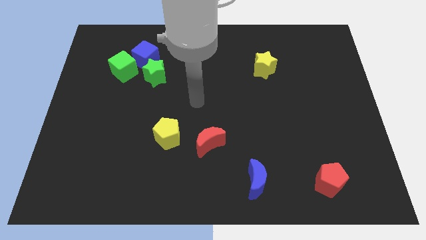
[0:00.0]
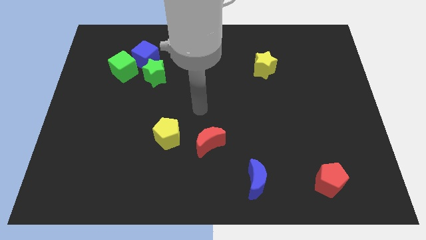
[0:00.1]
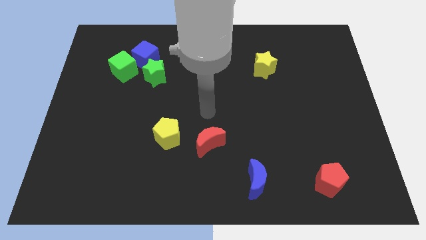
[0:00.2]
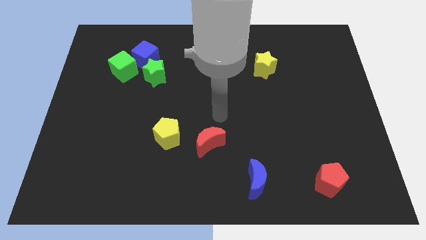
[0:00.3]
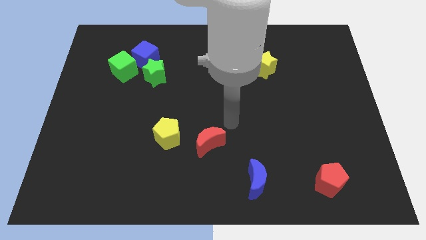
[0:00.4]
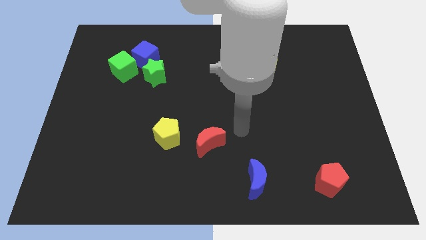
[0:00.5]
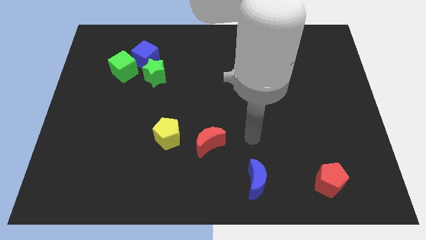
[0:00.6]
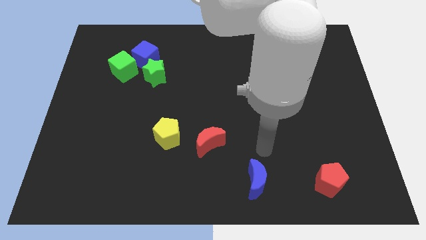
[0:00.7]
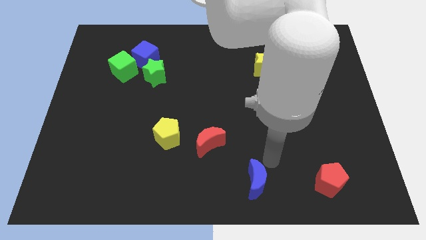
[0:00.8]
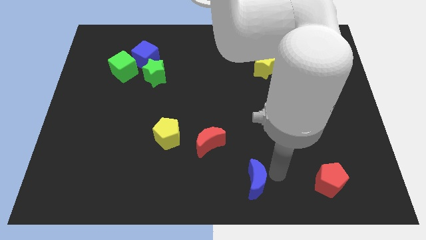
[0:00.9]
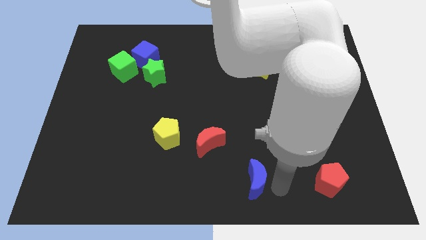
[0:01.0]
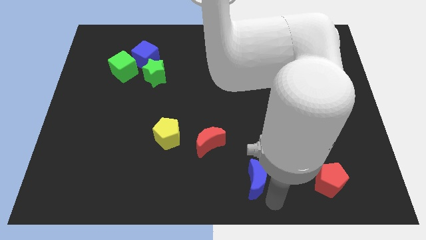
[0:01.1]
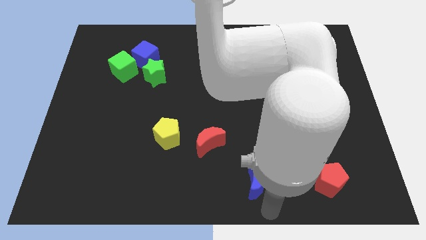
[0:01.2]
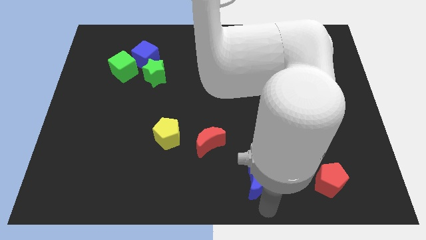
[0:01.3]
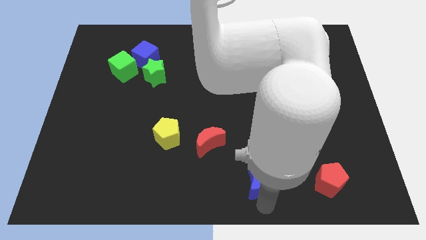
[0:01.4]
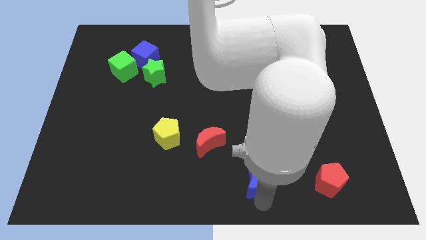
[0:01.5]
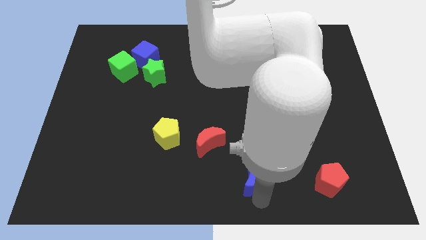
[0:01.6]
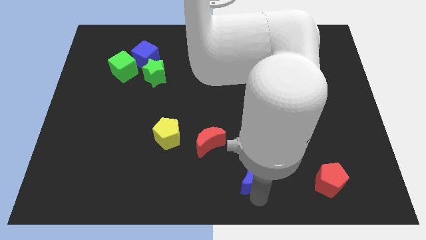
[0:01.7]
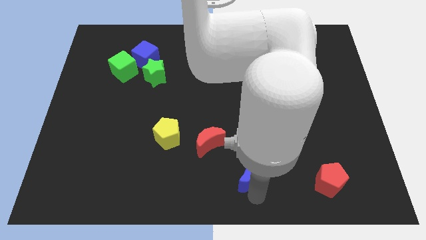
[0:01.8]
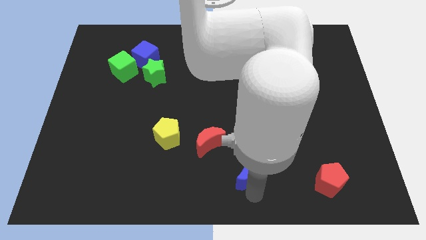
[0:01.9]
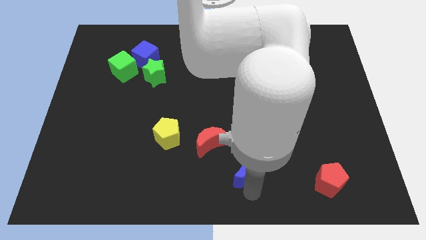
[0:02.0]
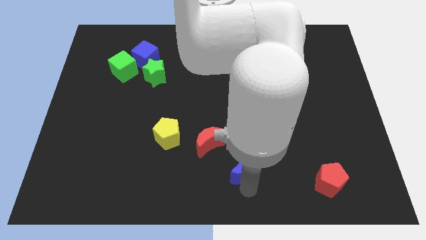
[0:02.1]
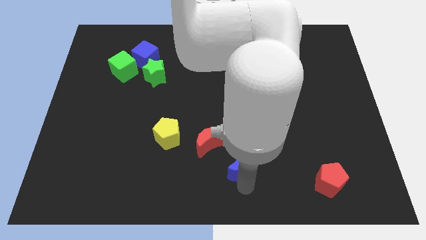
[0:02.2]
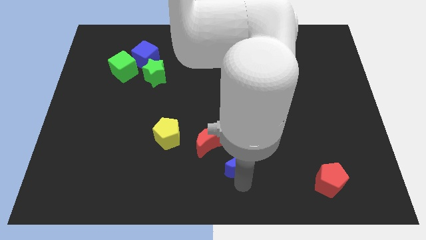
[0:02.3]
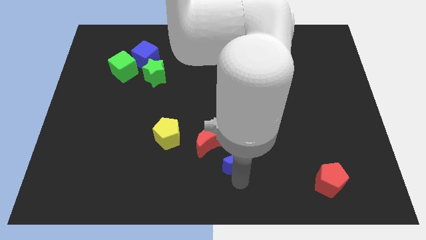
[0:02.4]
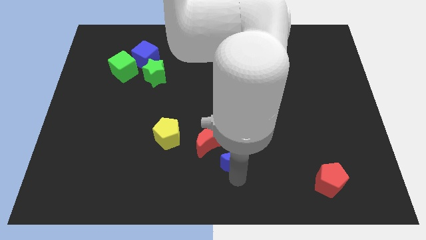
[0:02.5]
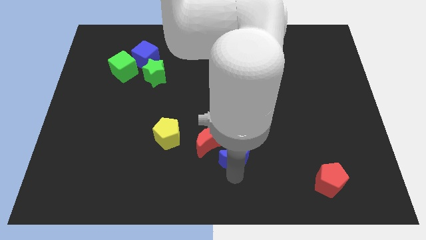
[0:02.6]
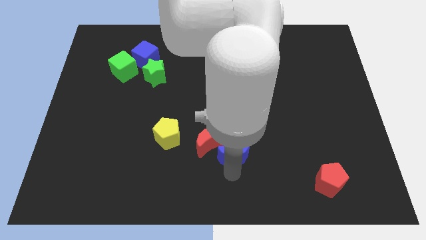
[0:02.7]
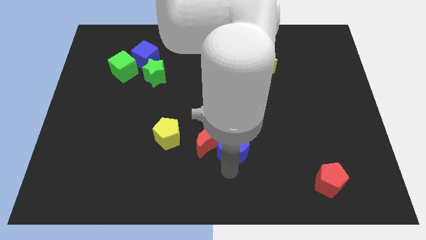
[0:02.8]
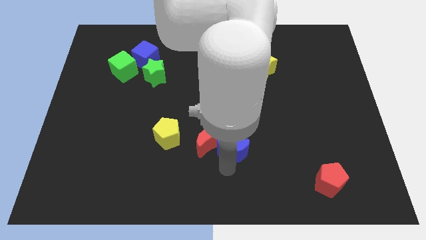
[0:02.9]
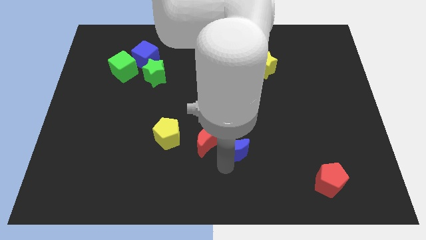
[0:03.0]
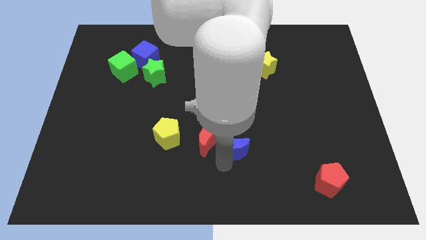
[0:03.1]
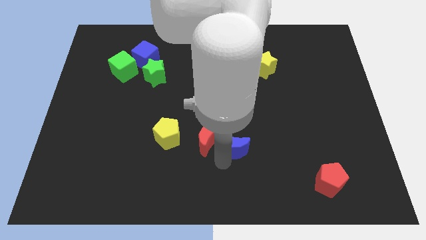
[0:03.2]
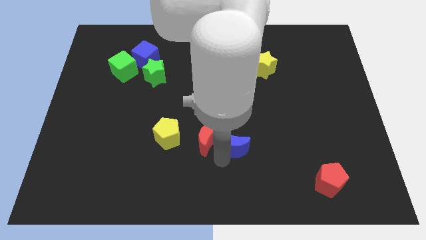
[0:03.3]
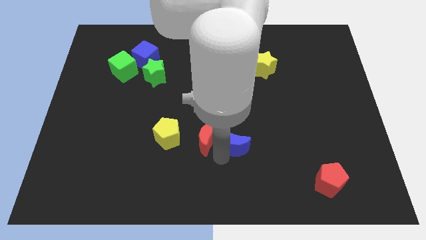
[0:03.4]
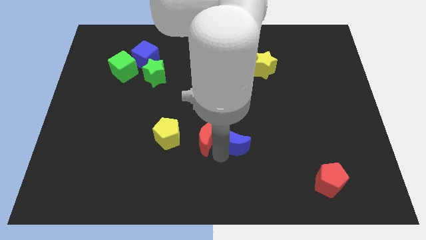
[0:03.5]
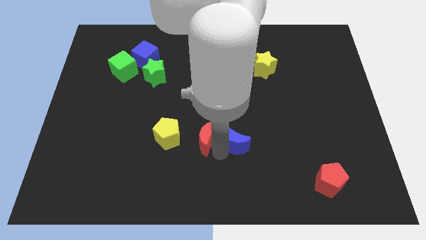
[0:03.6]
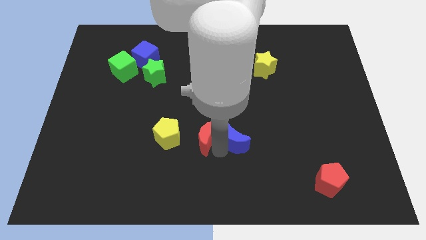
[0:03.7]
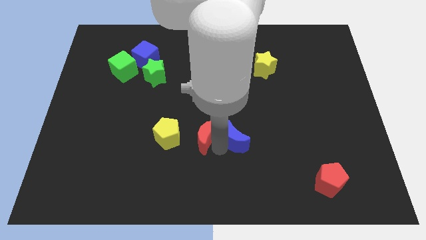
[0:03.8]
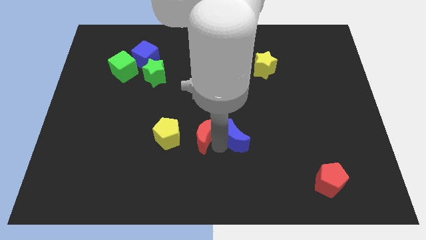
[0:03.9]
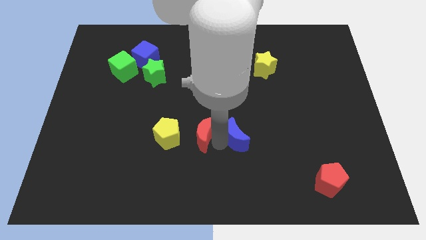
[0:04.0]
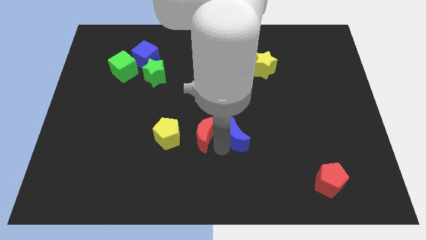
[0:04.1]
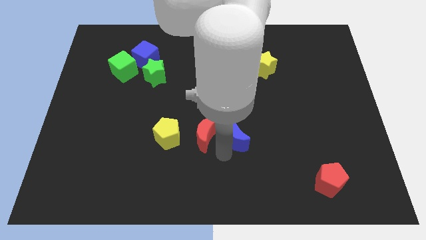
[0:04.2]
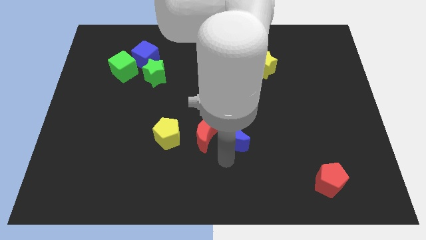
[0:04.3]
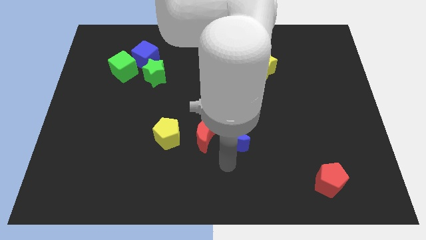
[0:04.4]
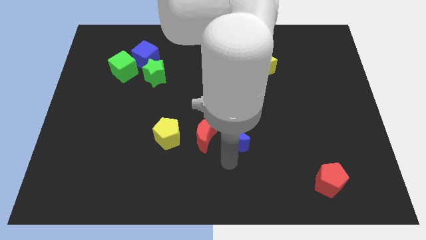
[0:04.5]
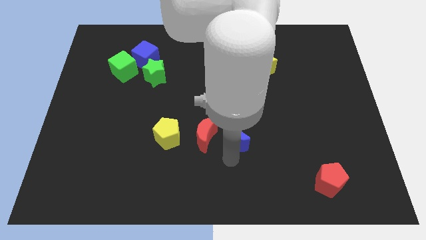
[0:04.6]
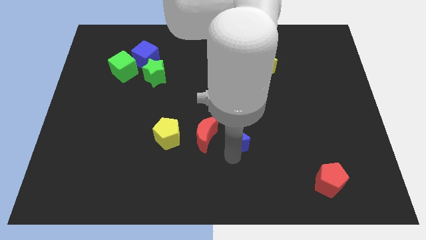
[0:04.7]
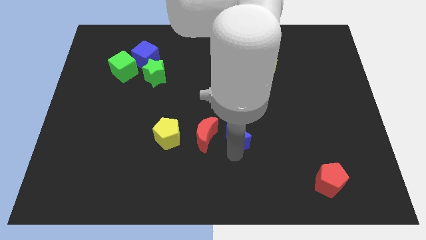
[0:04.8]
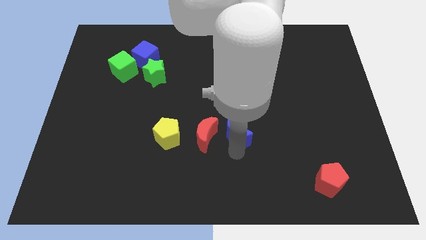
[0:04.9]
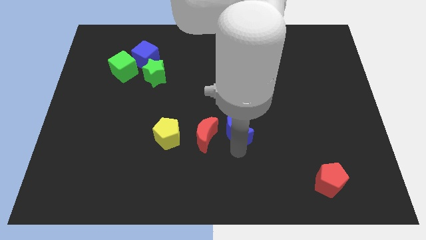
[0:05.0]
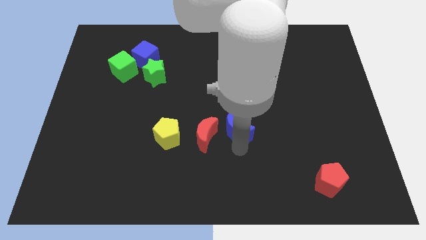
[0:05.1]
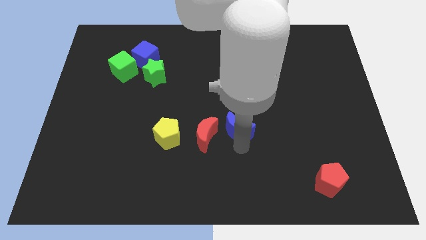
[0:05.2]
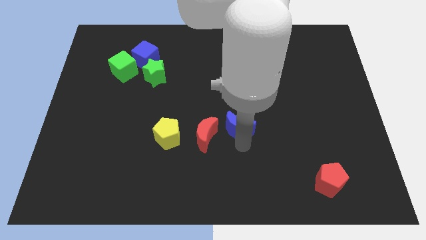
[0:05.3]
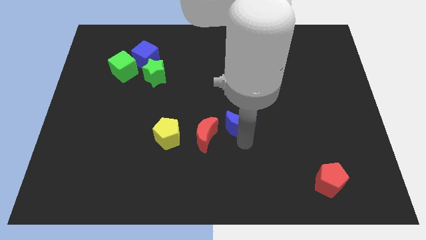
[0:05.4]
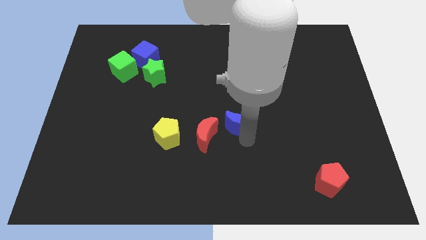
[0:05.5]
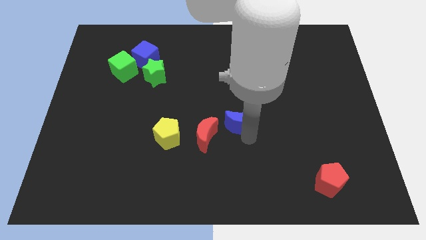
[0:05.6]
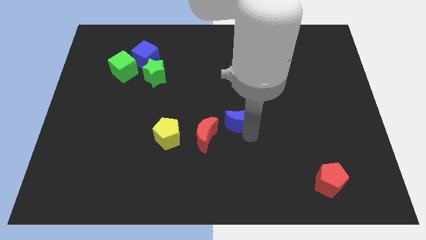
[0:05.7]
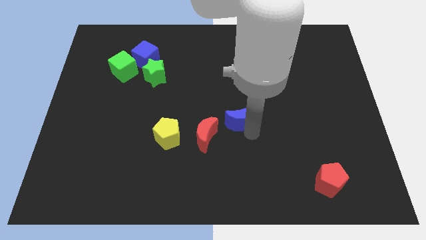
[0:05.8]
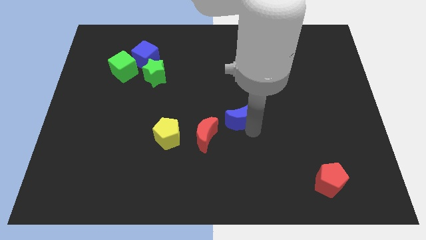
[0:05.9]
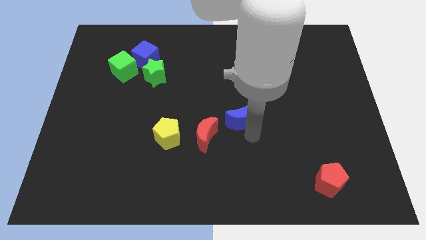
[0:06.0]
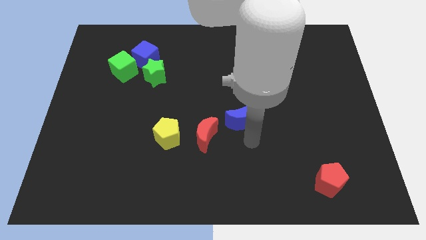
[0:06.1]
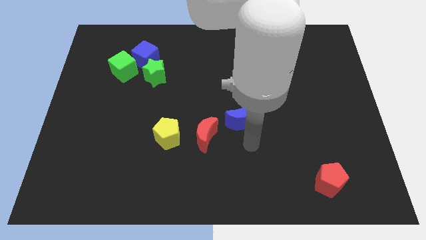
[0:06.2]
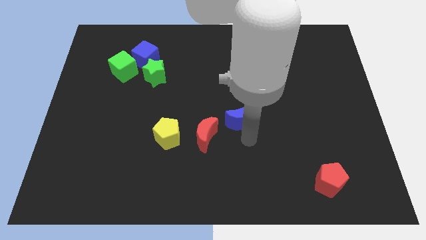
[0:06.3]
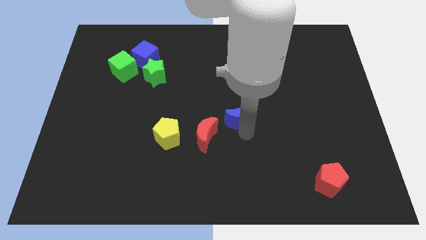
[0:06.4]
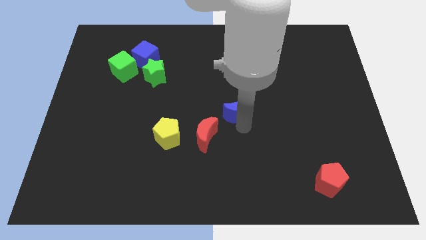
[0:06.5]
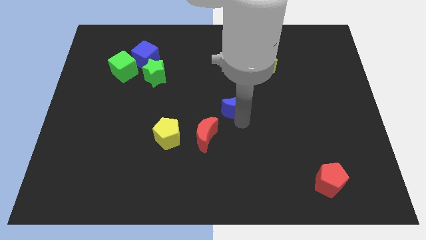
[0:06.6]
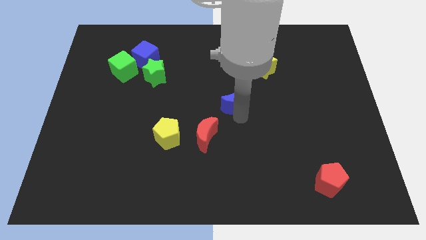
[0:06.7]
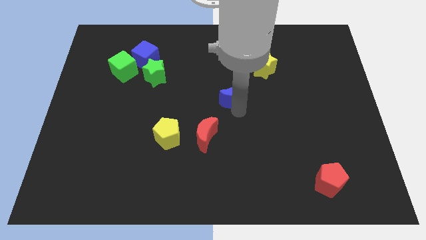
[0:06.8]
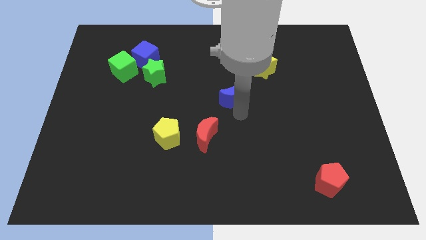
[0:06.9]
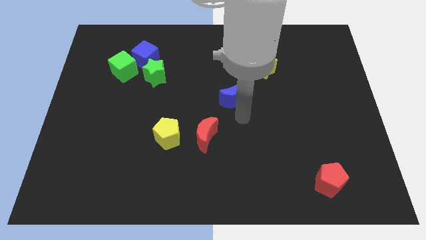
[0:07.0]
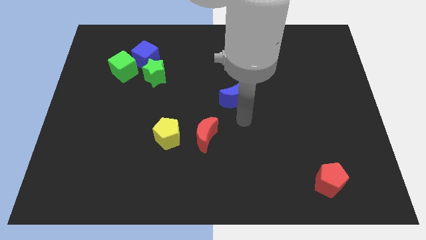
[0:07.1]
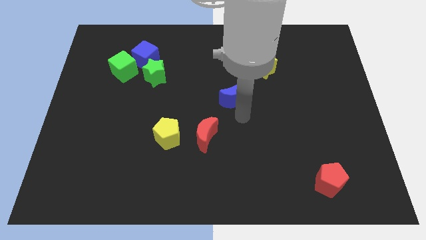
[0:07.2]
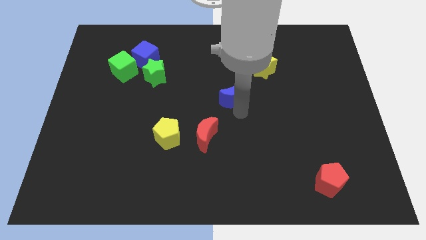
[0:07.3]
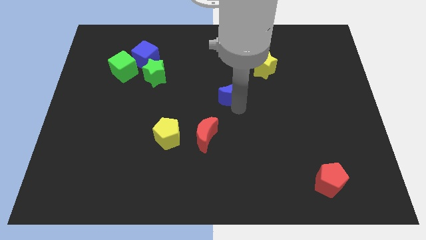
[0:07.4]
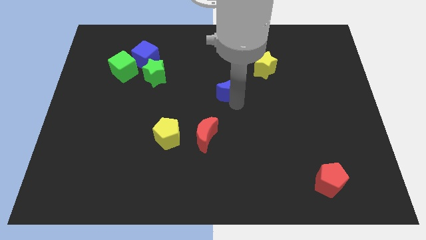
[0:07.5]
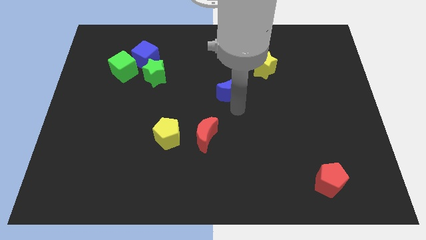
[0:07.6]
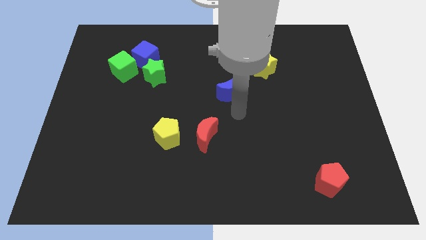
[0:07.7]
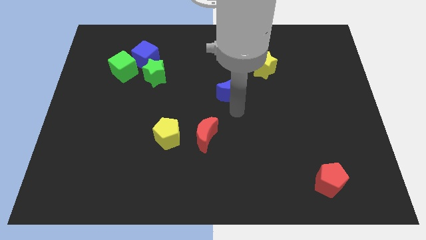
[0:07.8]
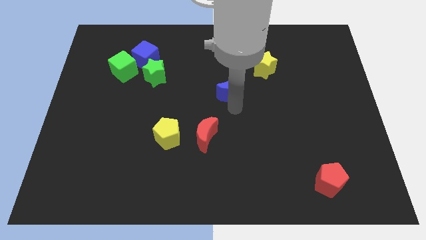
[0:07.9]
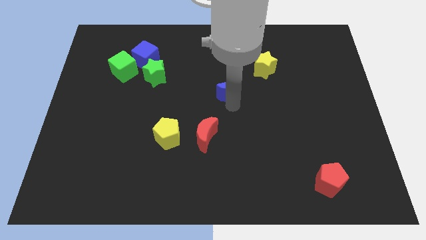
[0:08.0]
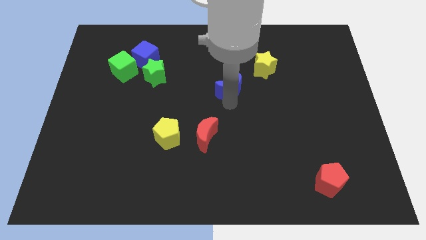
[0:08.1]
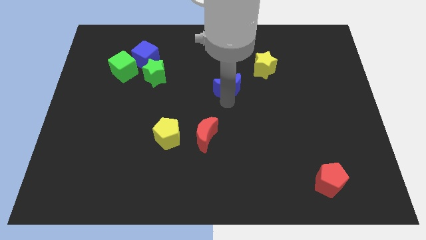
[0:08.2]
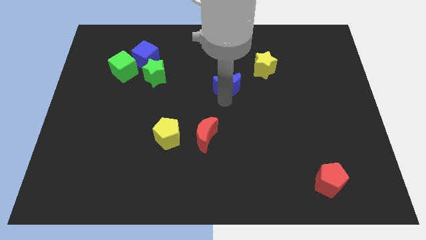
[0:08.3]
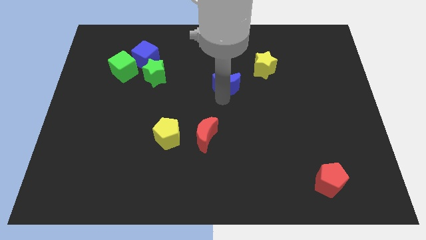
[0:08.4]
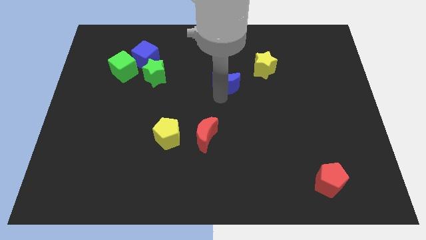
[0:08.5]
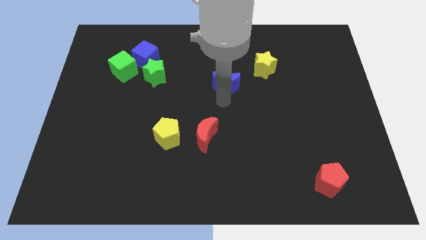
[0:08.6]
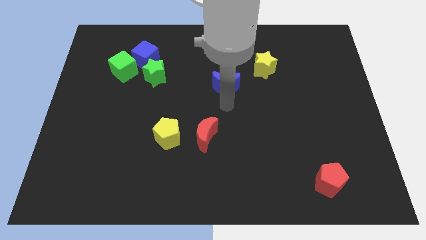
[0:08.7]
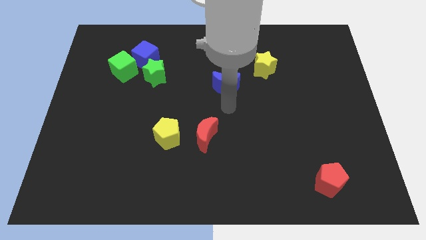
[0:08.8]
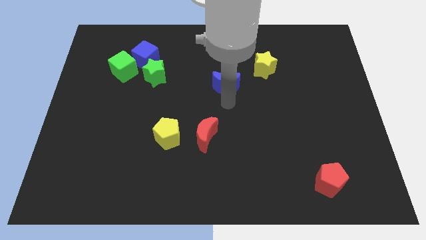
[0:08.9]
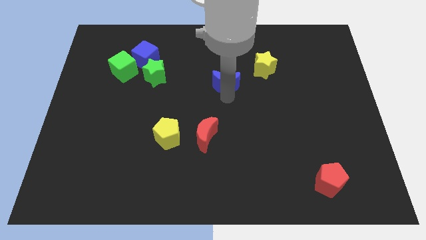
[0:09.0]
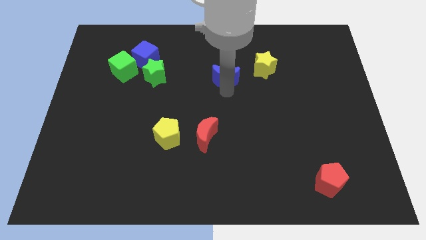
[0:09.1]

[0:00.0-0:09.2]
slide the blue moon left of the yellow star
